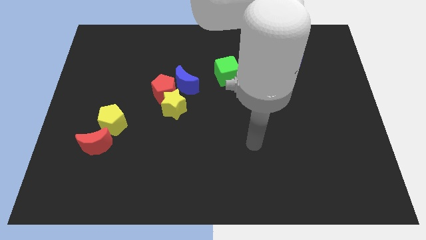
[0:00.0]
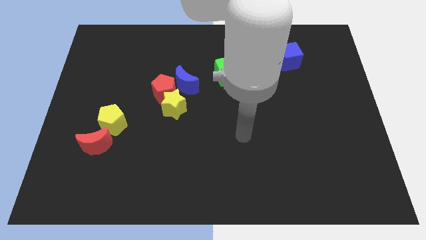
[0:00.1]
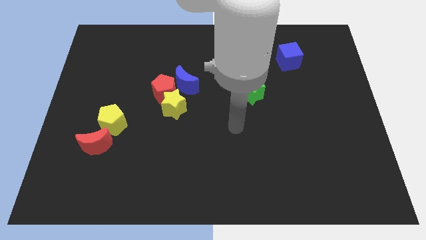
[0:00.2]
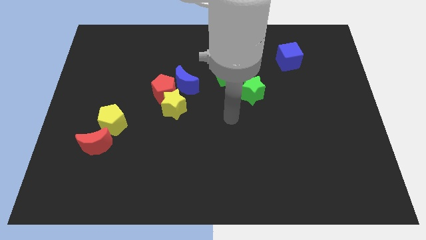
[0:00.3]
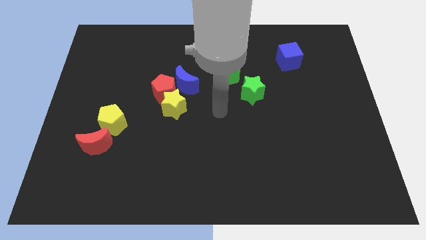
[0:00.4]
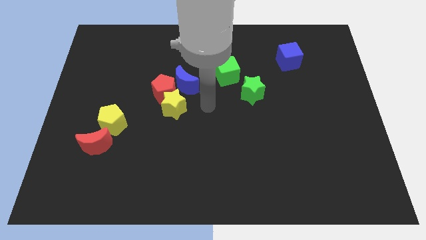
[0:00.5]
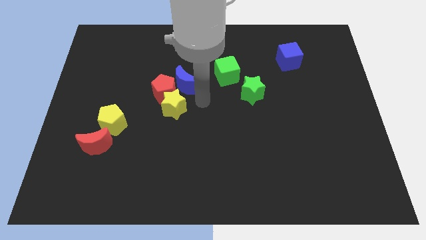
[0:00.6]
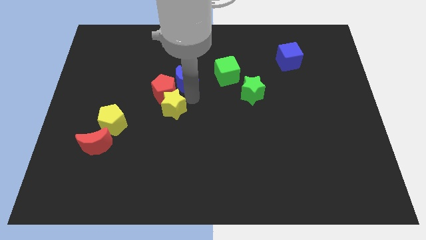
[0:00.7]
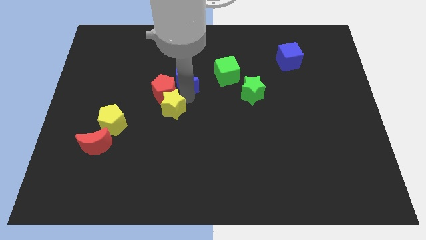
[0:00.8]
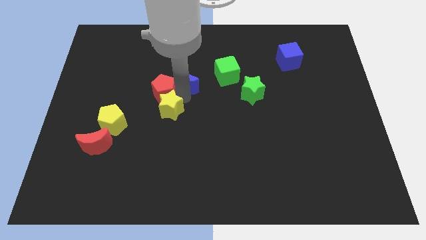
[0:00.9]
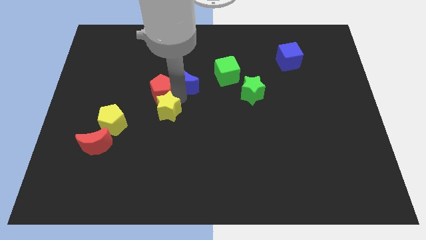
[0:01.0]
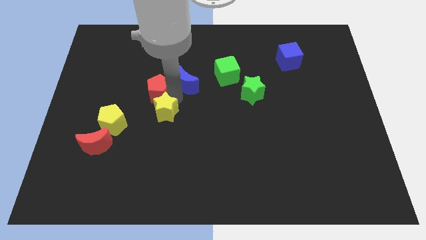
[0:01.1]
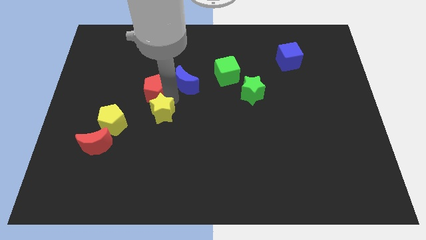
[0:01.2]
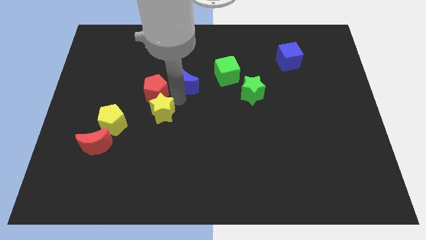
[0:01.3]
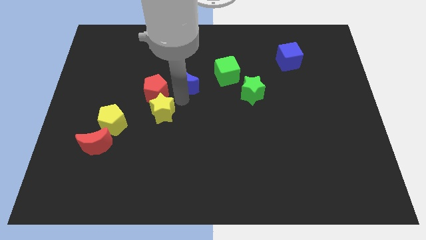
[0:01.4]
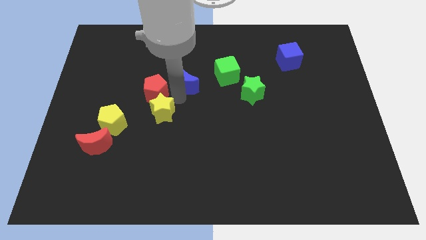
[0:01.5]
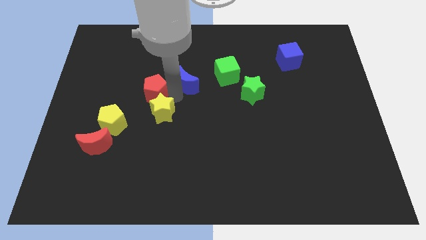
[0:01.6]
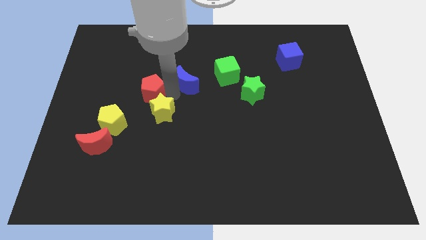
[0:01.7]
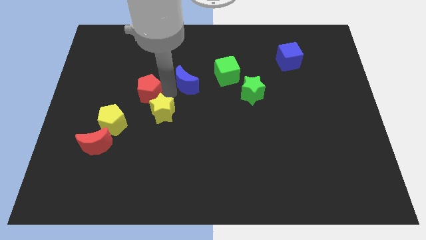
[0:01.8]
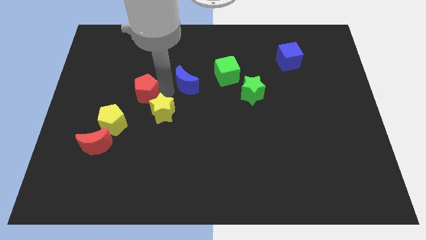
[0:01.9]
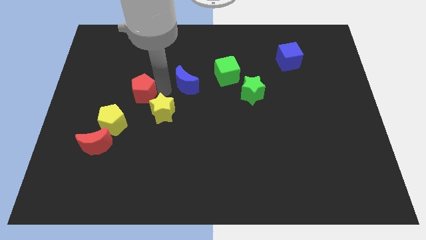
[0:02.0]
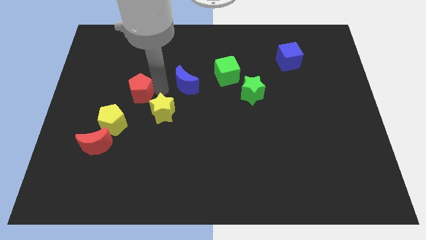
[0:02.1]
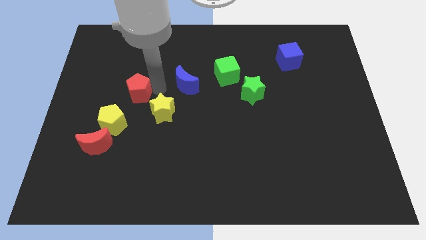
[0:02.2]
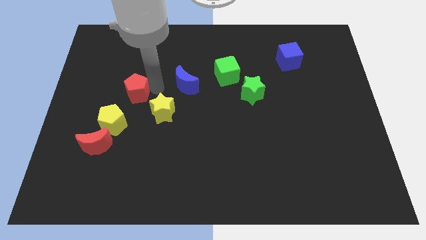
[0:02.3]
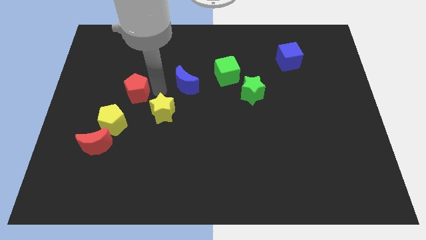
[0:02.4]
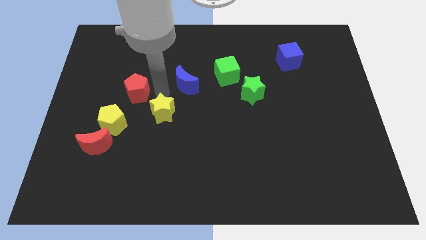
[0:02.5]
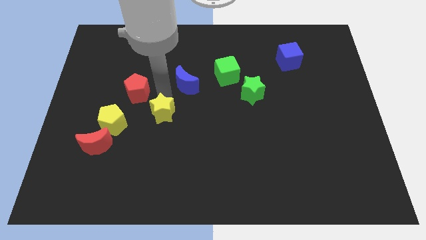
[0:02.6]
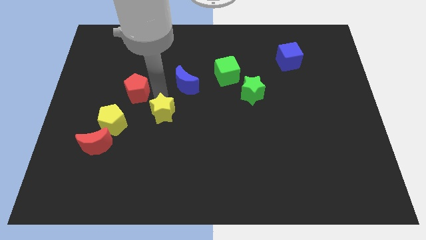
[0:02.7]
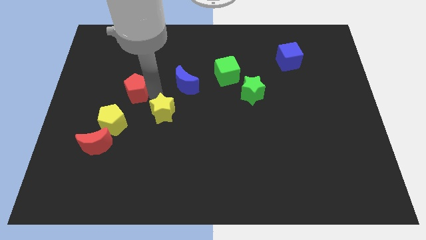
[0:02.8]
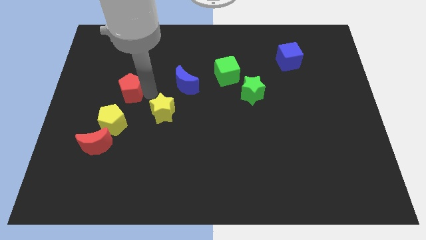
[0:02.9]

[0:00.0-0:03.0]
move the red pentagon away from the yellow star and blue moon

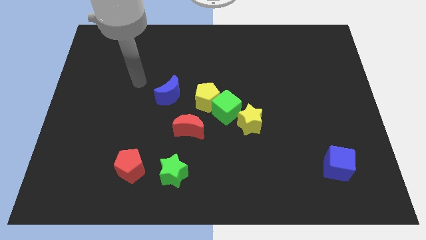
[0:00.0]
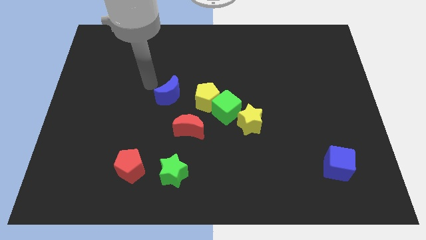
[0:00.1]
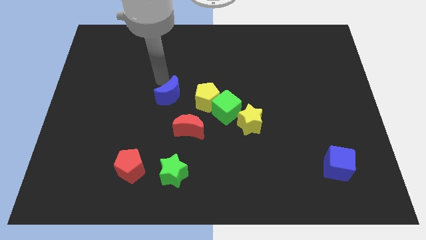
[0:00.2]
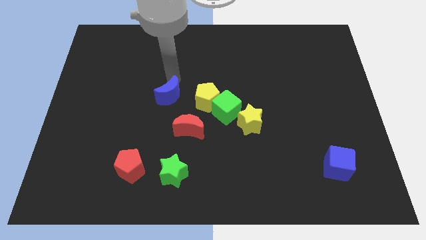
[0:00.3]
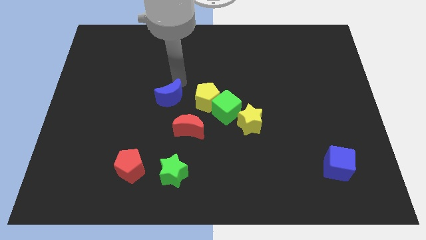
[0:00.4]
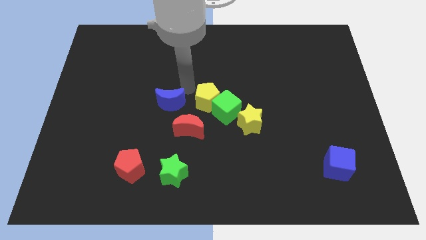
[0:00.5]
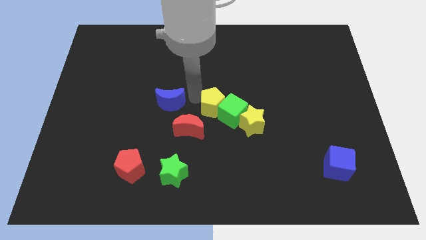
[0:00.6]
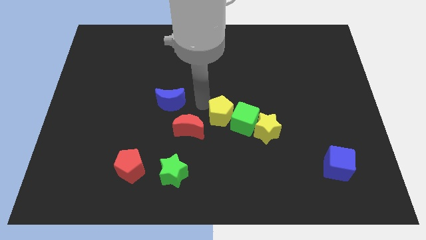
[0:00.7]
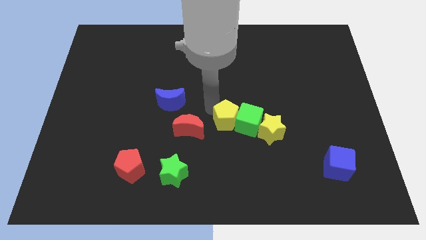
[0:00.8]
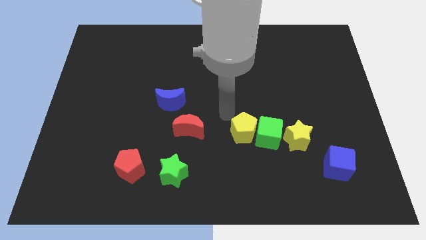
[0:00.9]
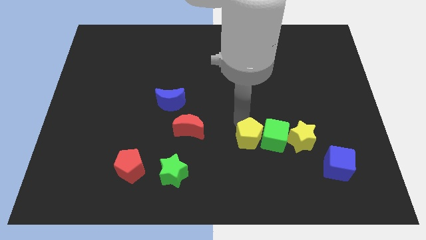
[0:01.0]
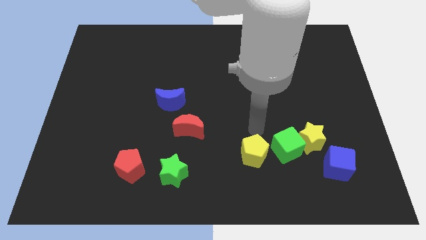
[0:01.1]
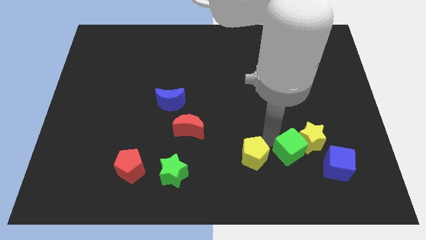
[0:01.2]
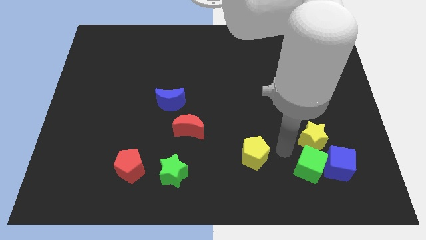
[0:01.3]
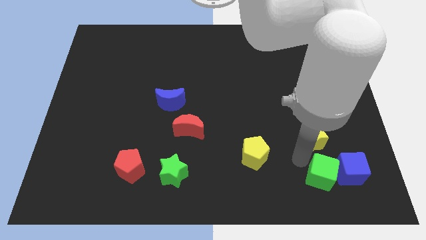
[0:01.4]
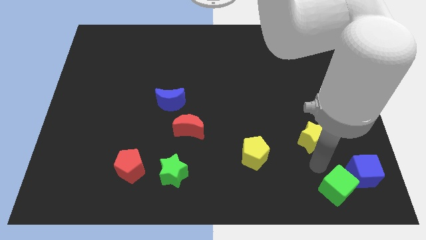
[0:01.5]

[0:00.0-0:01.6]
pull the yellow star apart from the green cube

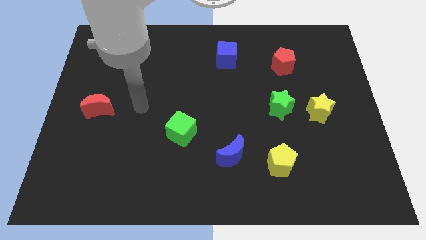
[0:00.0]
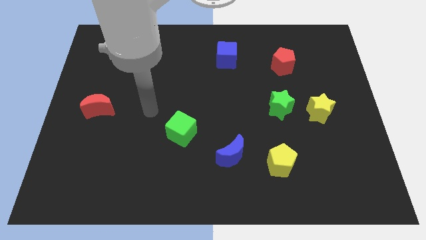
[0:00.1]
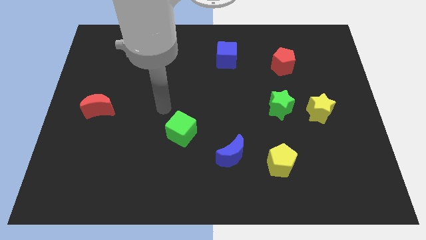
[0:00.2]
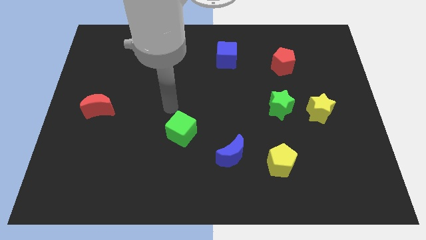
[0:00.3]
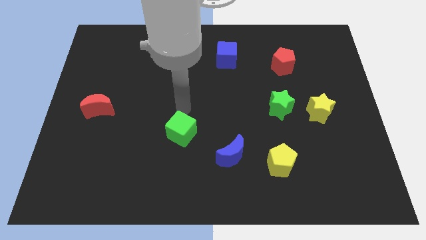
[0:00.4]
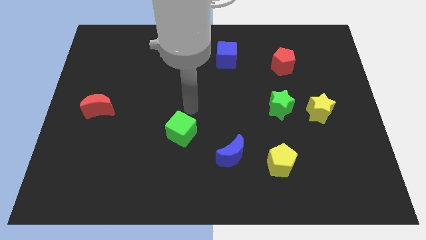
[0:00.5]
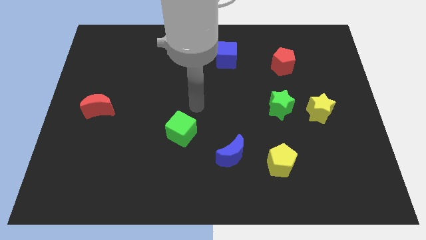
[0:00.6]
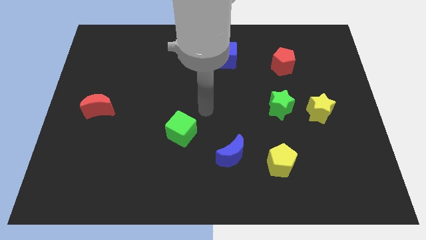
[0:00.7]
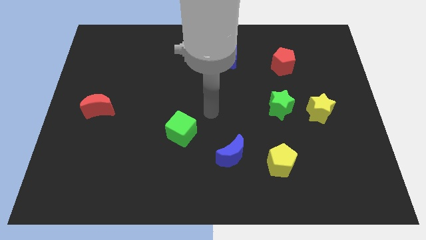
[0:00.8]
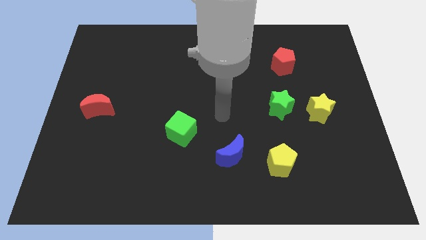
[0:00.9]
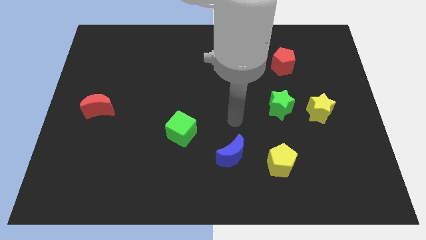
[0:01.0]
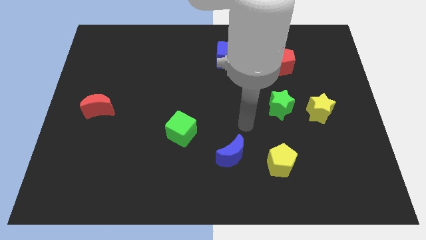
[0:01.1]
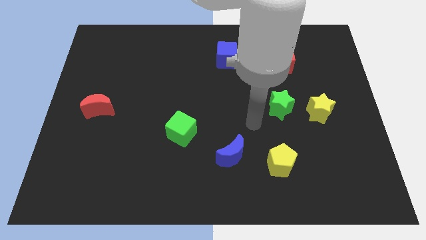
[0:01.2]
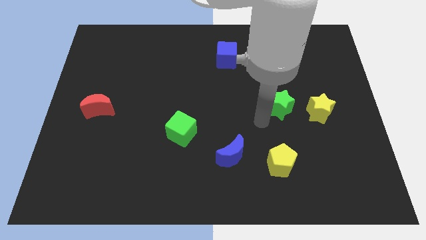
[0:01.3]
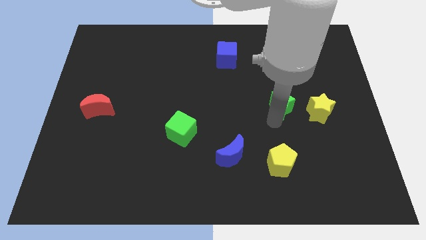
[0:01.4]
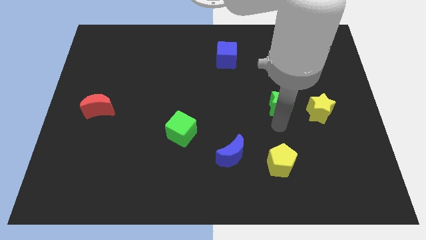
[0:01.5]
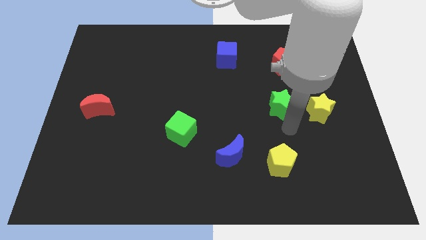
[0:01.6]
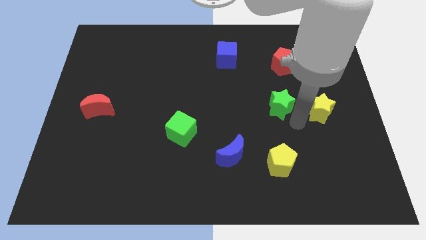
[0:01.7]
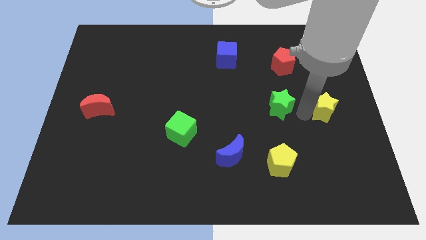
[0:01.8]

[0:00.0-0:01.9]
separate the green star from the yellow star

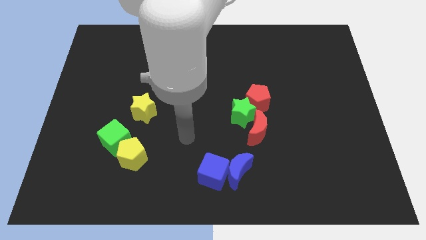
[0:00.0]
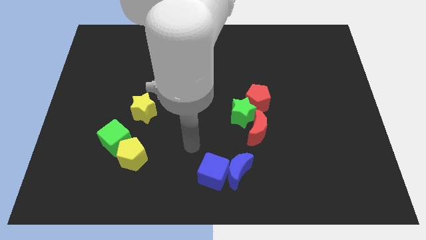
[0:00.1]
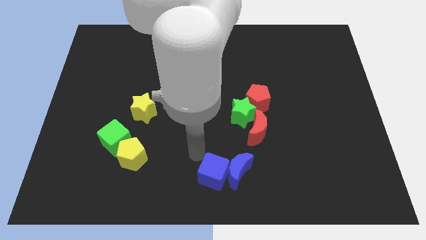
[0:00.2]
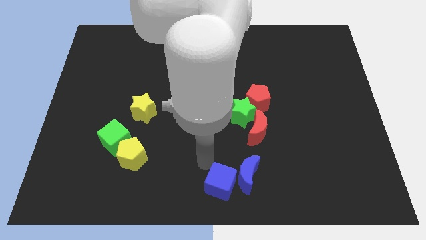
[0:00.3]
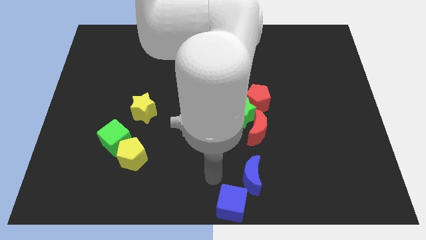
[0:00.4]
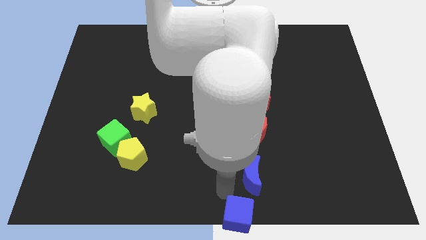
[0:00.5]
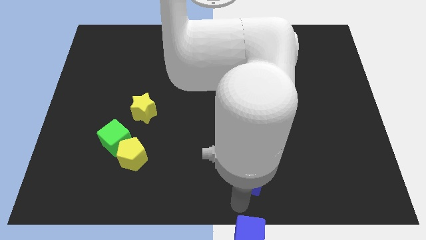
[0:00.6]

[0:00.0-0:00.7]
pull the blue moon apart from the blue cube

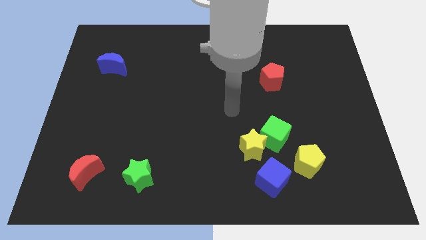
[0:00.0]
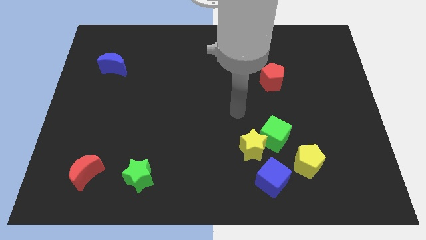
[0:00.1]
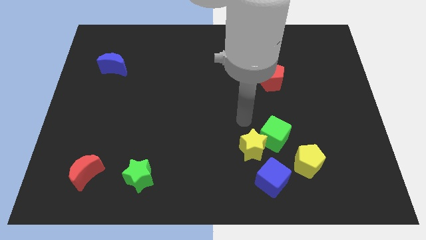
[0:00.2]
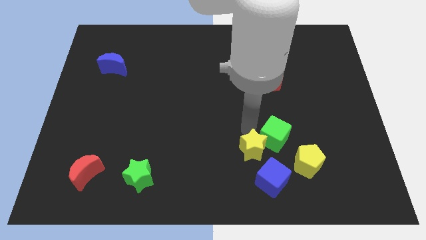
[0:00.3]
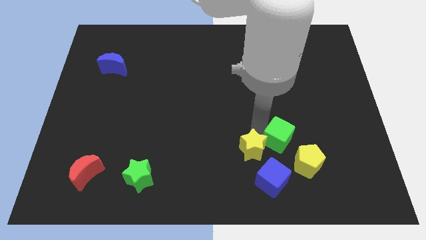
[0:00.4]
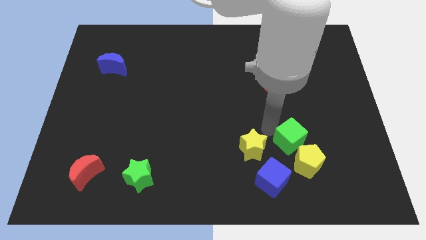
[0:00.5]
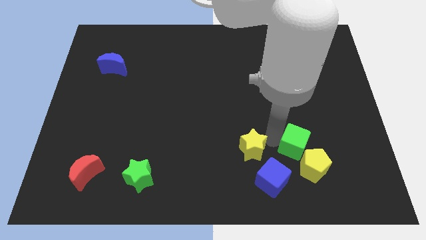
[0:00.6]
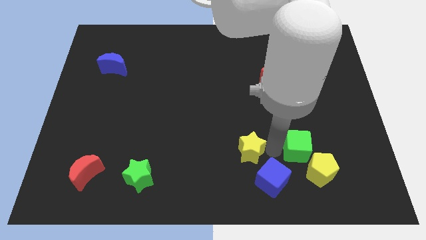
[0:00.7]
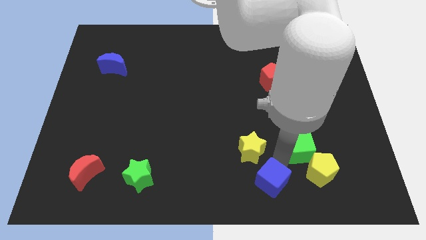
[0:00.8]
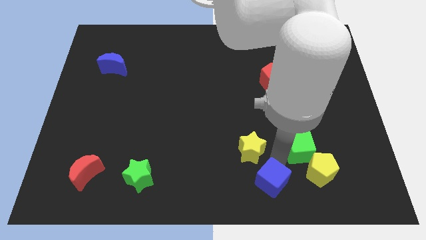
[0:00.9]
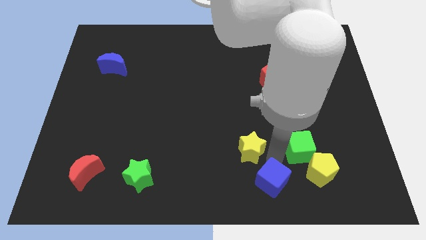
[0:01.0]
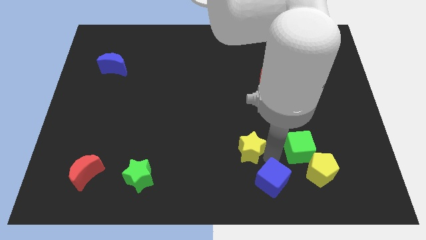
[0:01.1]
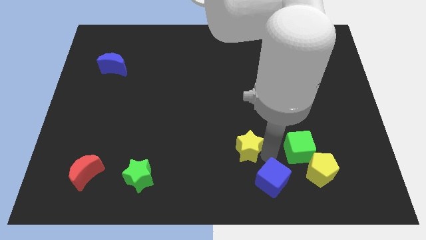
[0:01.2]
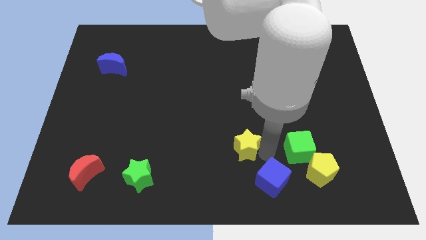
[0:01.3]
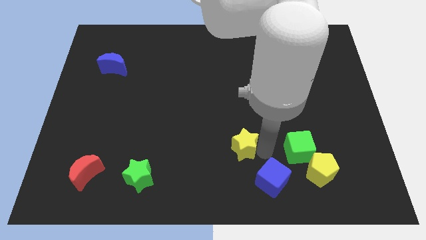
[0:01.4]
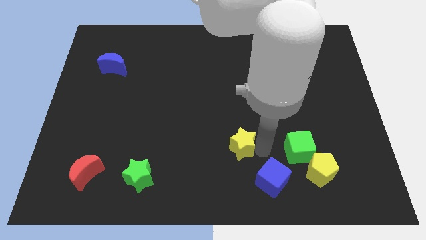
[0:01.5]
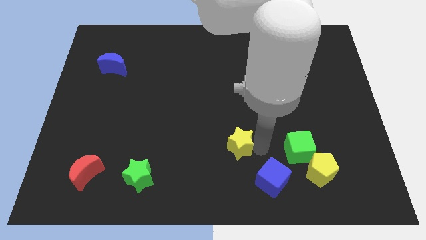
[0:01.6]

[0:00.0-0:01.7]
pull the yellow star apart from the green cube and blue cube

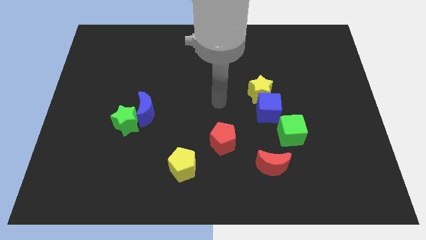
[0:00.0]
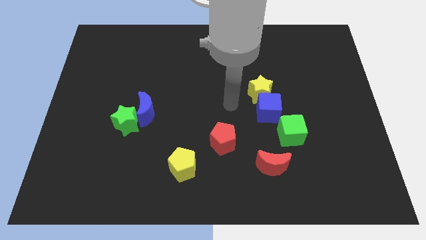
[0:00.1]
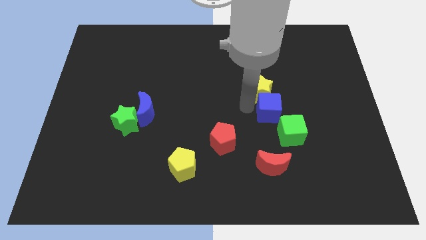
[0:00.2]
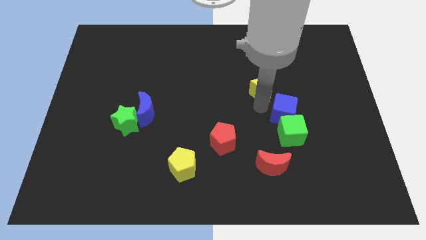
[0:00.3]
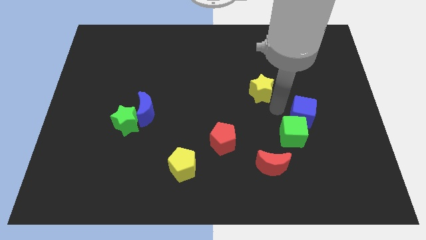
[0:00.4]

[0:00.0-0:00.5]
separate the yellow star from the blue cube
